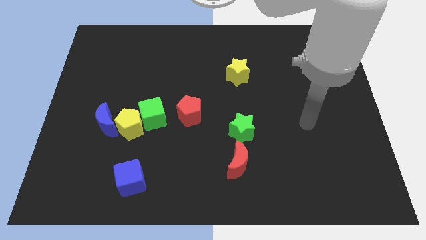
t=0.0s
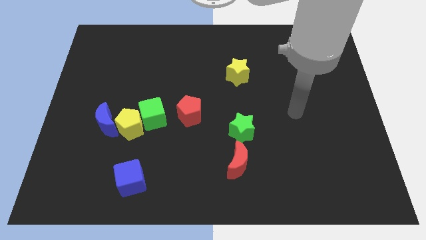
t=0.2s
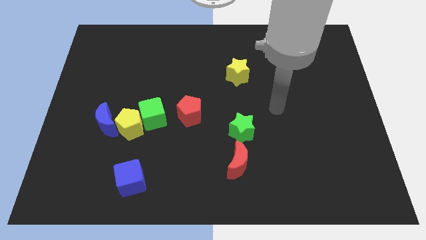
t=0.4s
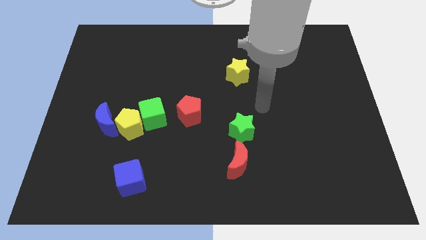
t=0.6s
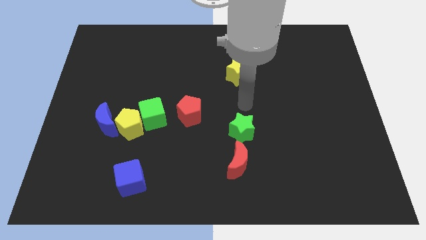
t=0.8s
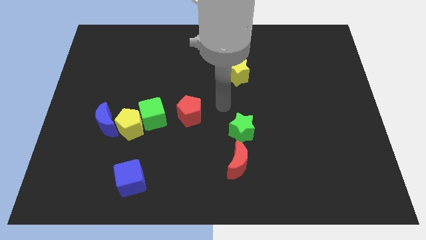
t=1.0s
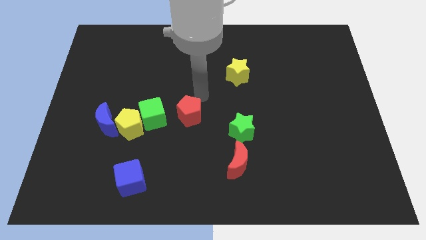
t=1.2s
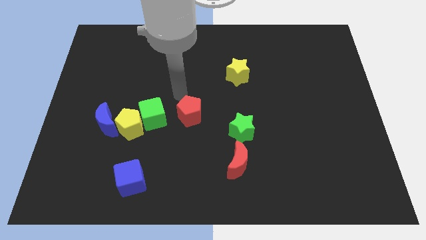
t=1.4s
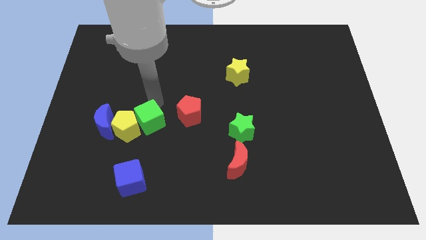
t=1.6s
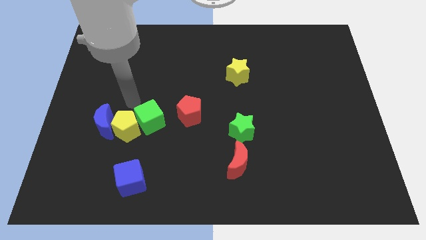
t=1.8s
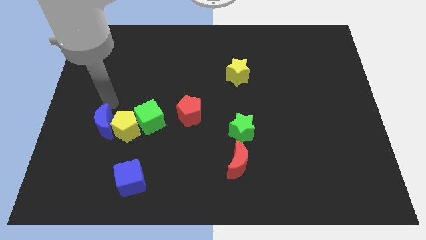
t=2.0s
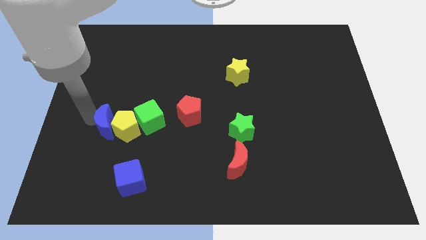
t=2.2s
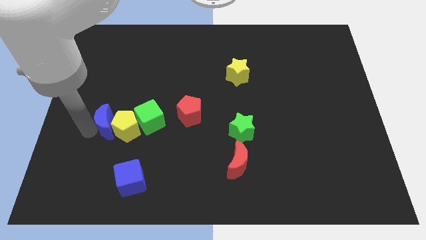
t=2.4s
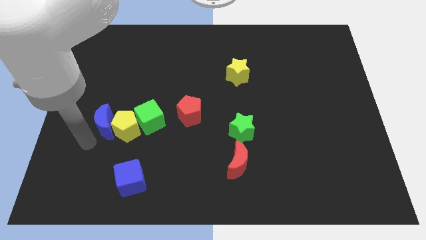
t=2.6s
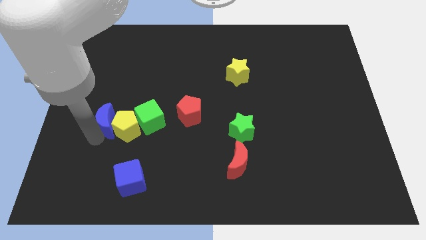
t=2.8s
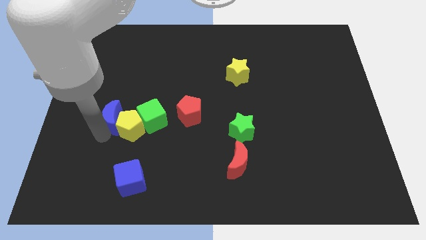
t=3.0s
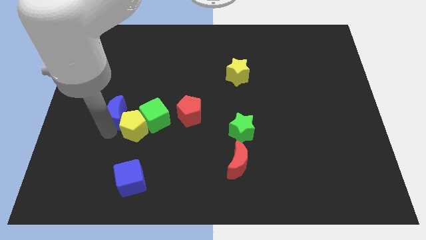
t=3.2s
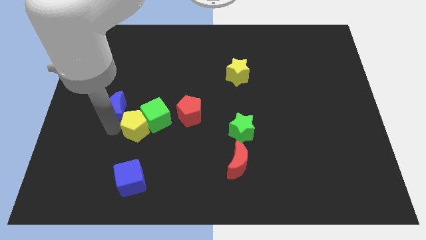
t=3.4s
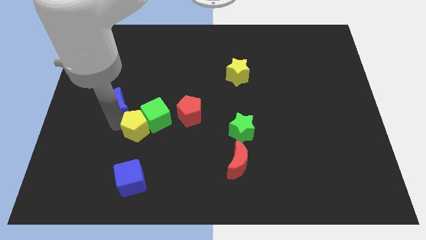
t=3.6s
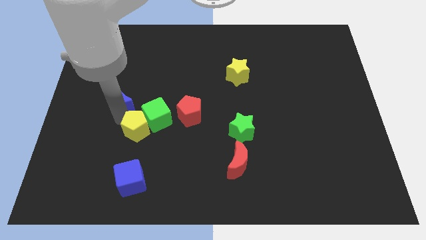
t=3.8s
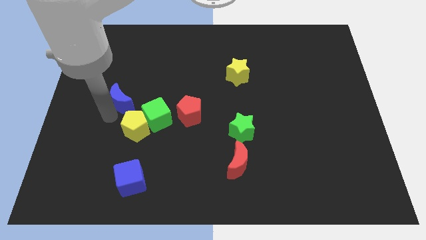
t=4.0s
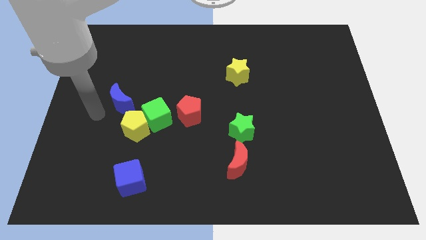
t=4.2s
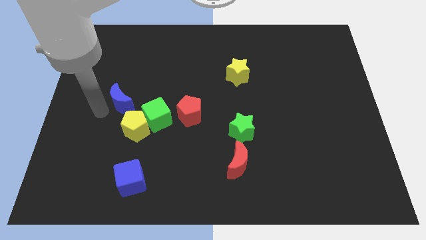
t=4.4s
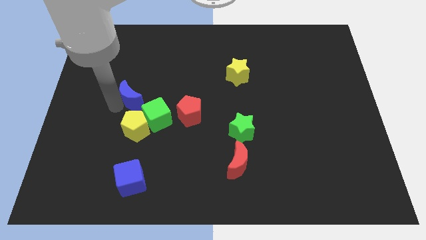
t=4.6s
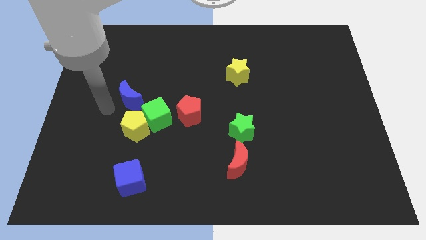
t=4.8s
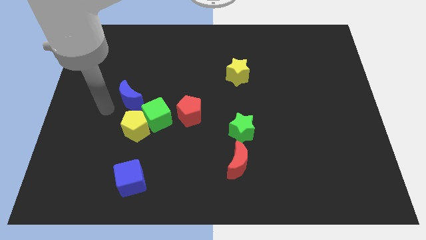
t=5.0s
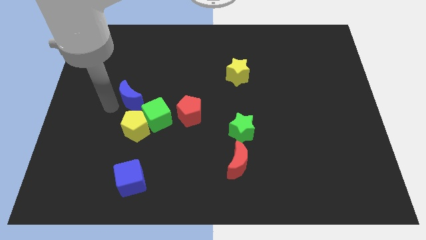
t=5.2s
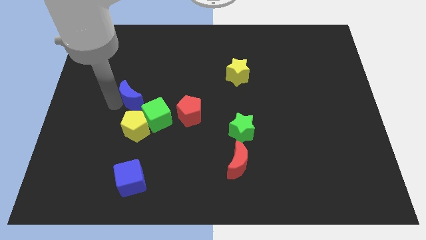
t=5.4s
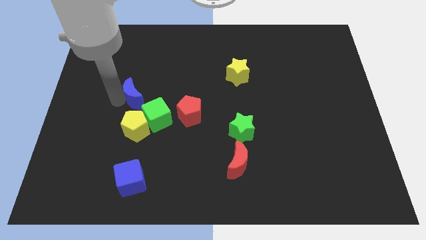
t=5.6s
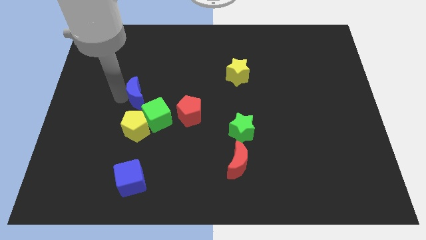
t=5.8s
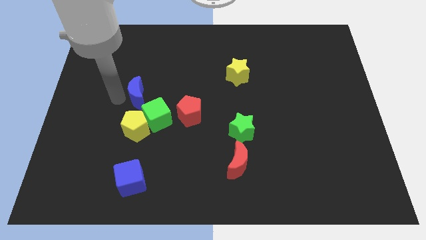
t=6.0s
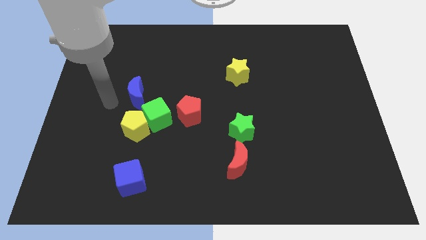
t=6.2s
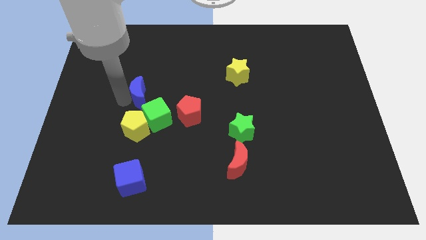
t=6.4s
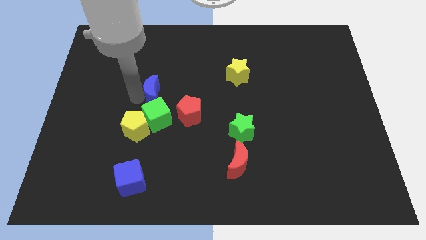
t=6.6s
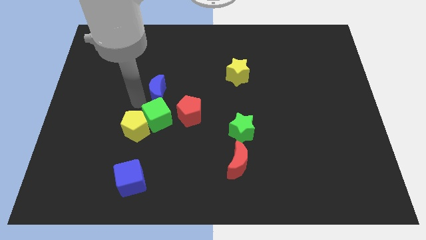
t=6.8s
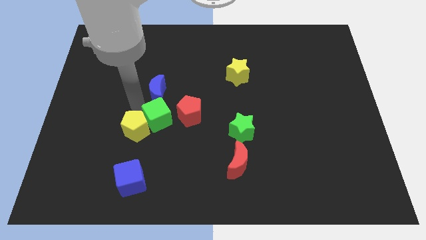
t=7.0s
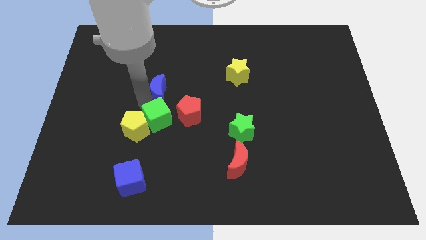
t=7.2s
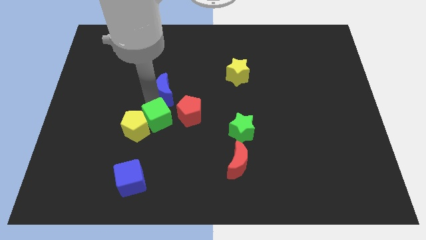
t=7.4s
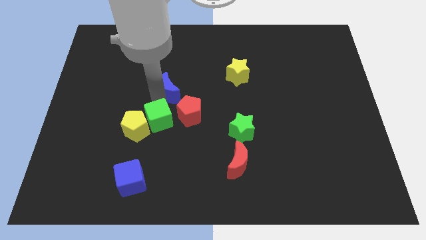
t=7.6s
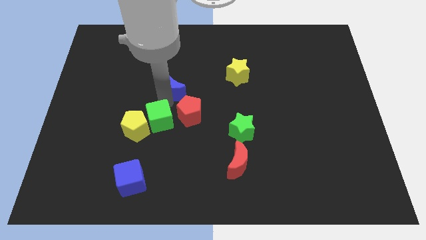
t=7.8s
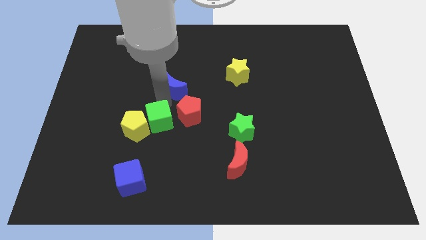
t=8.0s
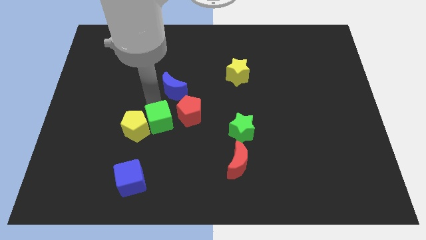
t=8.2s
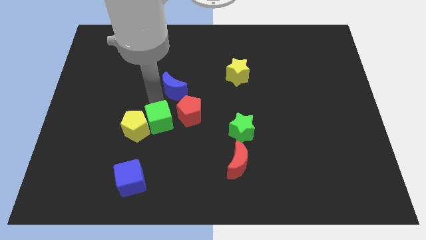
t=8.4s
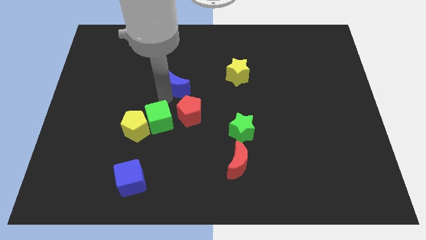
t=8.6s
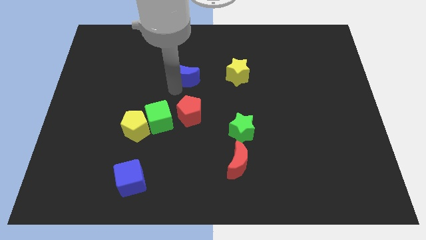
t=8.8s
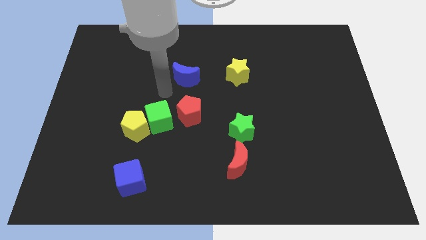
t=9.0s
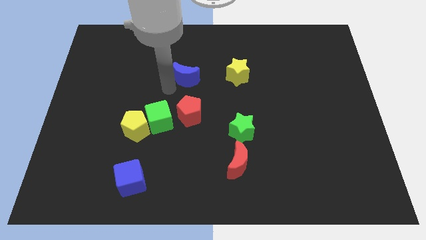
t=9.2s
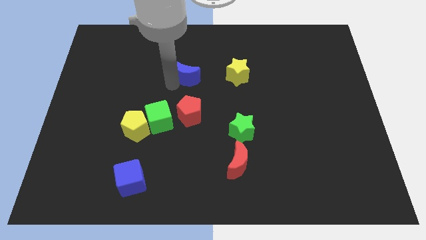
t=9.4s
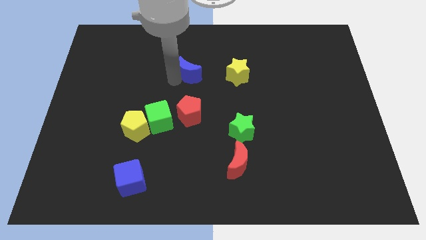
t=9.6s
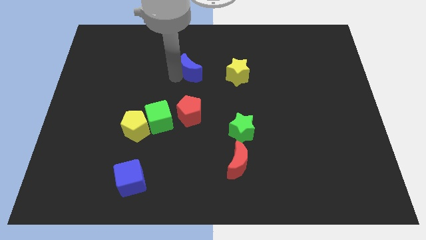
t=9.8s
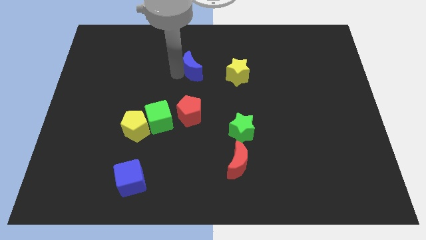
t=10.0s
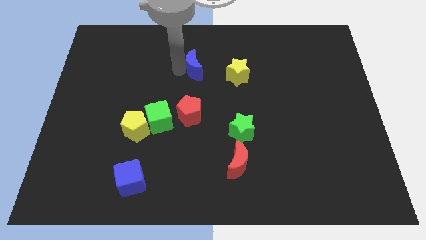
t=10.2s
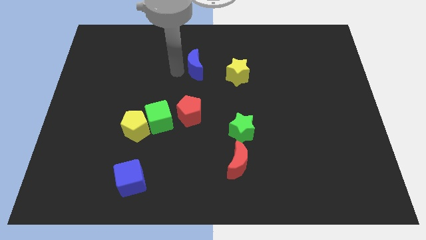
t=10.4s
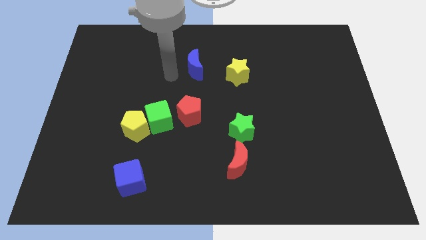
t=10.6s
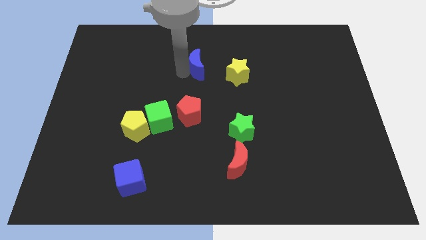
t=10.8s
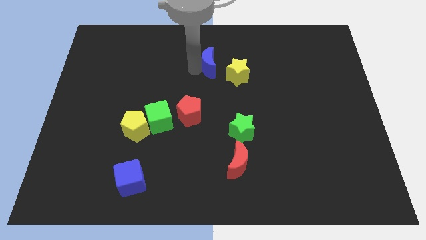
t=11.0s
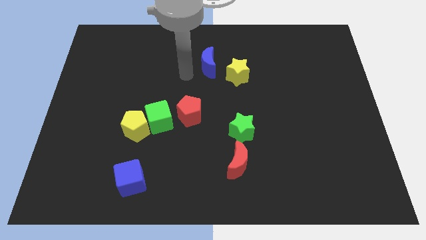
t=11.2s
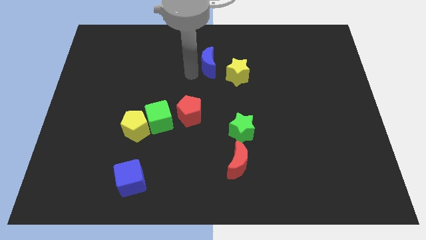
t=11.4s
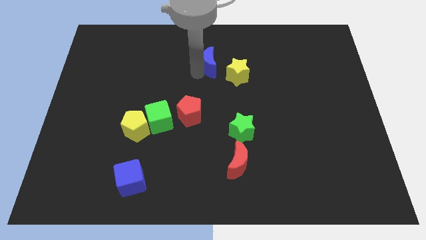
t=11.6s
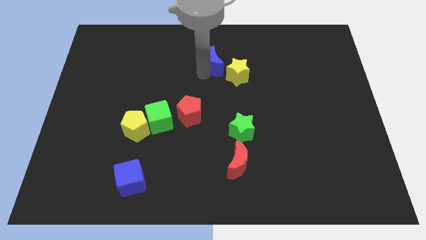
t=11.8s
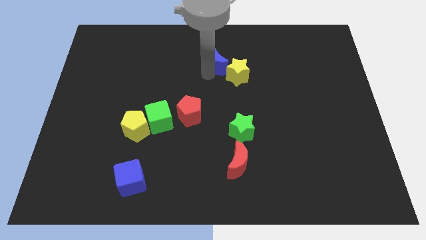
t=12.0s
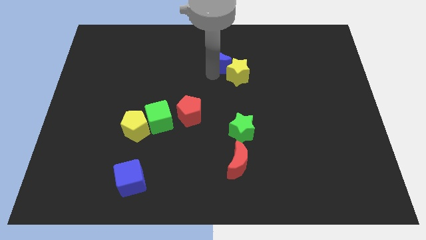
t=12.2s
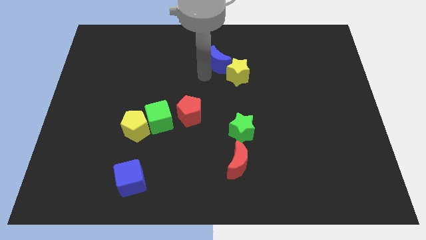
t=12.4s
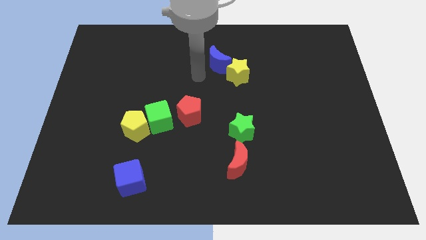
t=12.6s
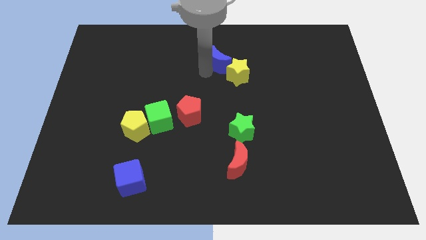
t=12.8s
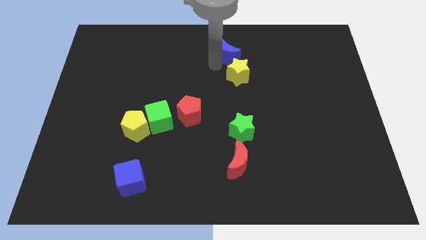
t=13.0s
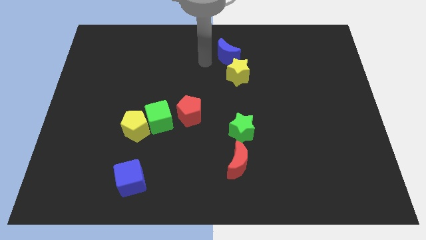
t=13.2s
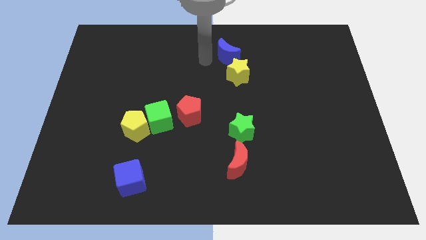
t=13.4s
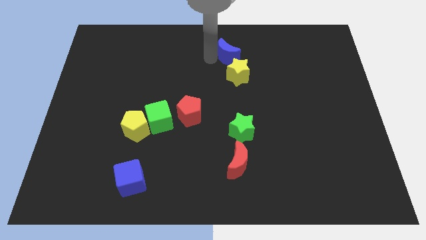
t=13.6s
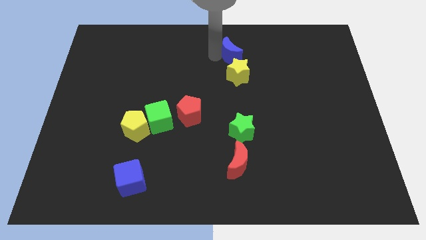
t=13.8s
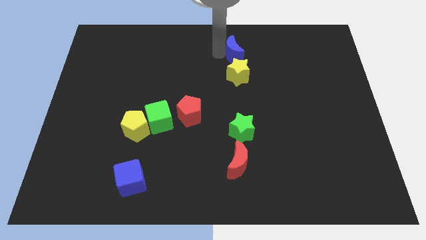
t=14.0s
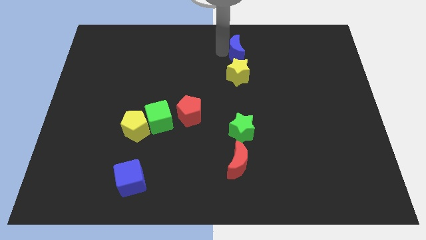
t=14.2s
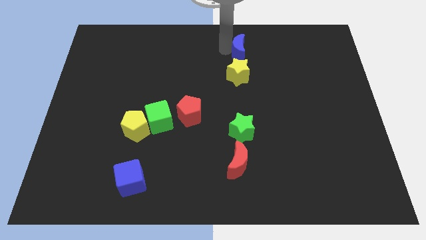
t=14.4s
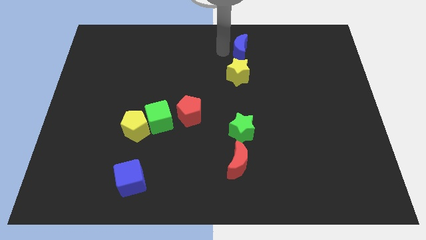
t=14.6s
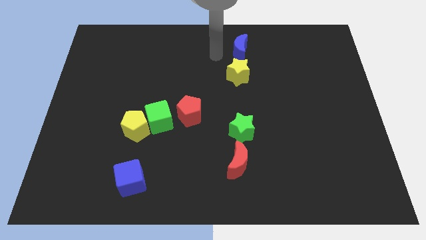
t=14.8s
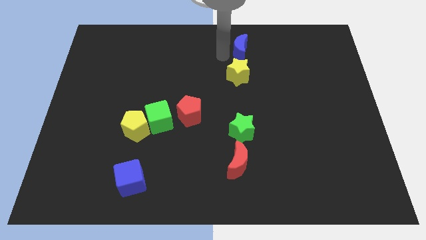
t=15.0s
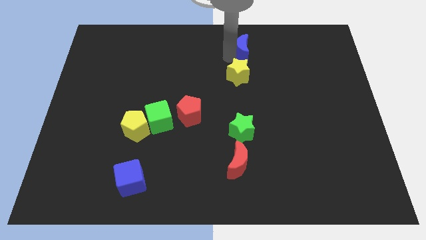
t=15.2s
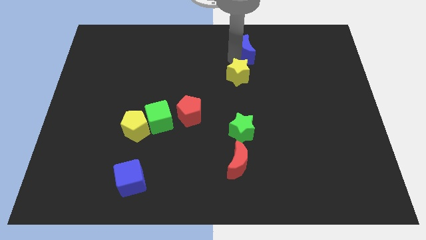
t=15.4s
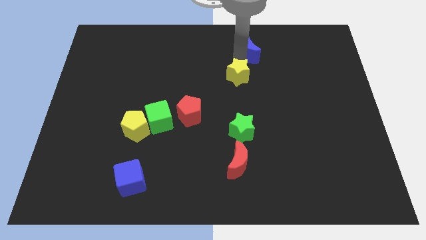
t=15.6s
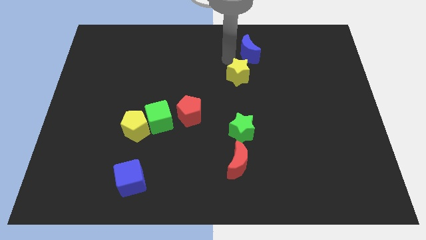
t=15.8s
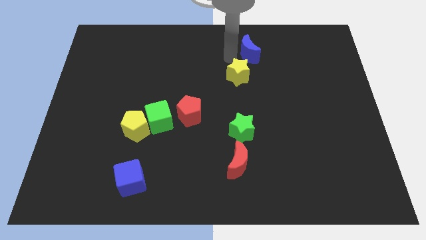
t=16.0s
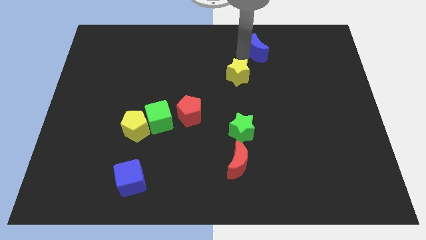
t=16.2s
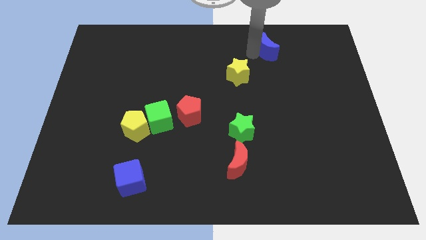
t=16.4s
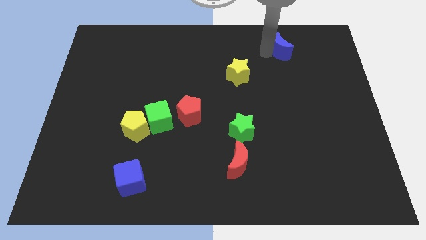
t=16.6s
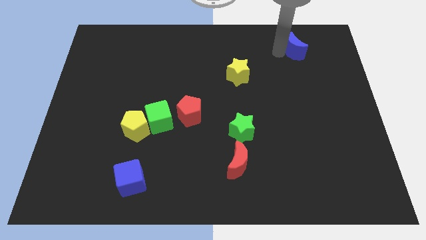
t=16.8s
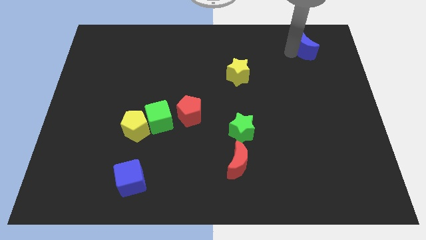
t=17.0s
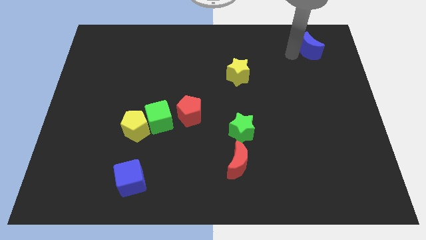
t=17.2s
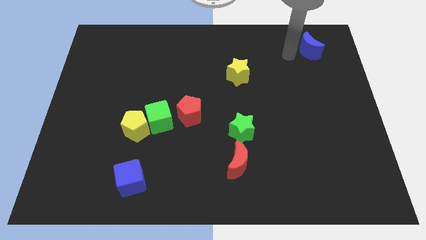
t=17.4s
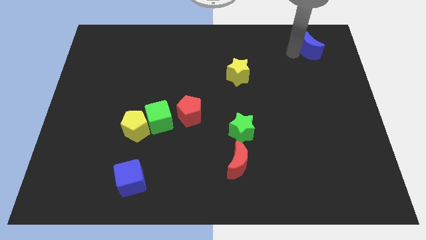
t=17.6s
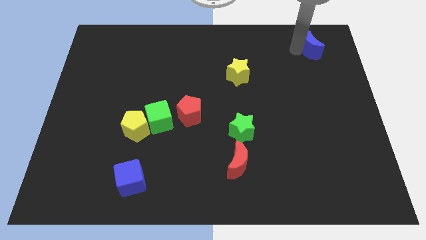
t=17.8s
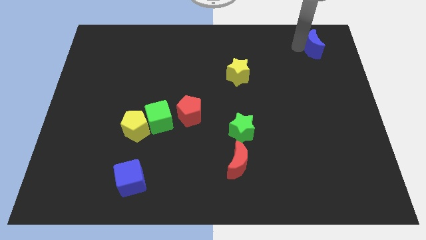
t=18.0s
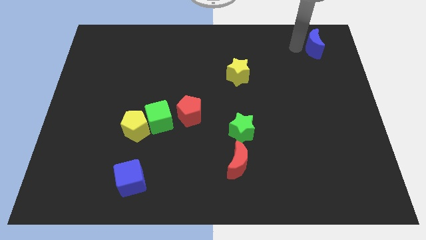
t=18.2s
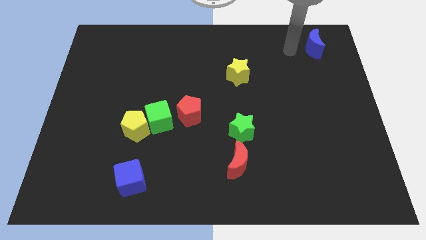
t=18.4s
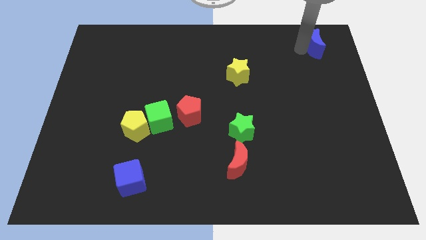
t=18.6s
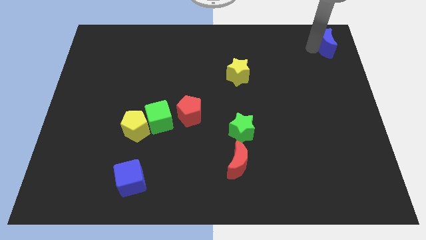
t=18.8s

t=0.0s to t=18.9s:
put the blue moon to the upper right corner
